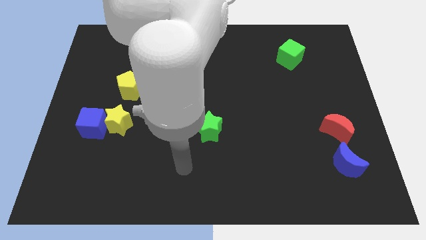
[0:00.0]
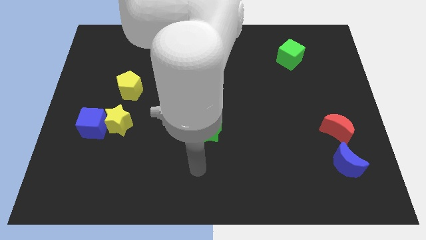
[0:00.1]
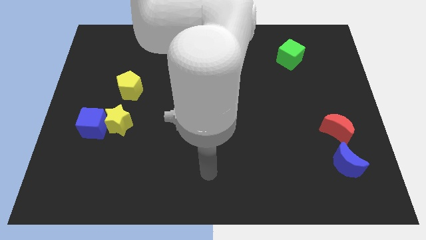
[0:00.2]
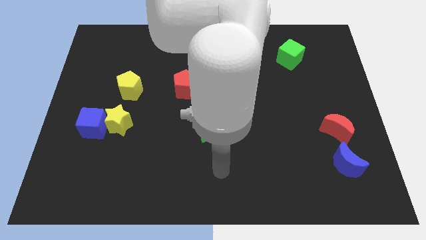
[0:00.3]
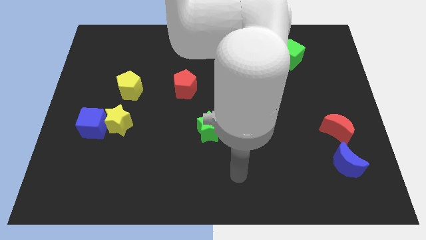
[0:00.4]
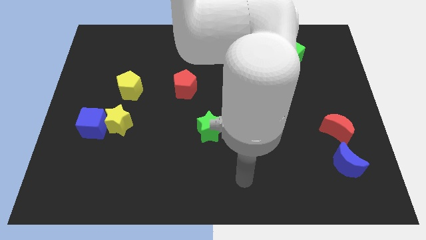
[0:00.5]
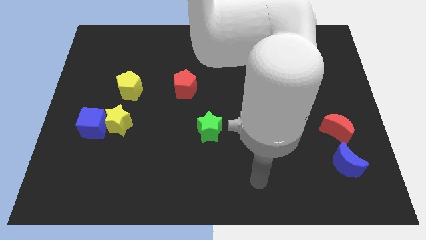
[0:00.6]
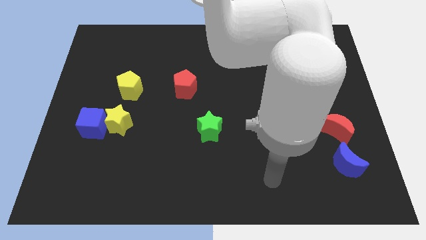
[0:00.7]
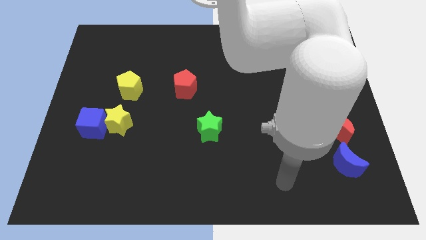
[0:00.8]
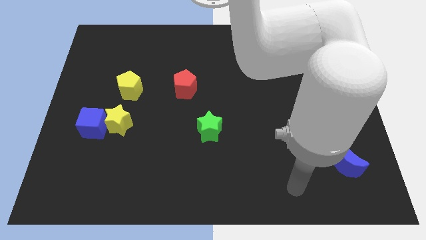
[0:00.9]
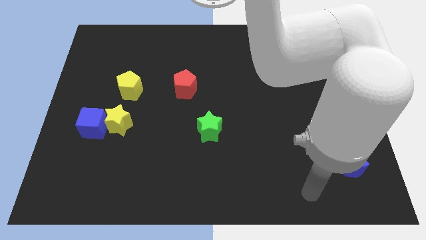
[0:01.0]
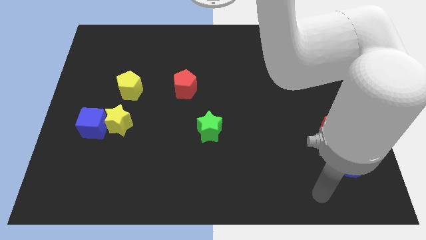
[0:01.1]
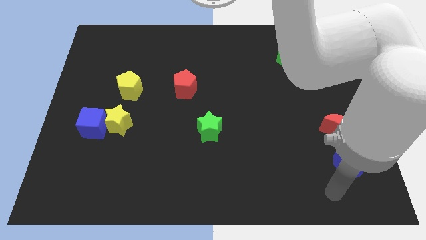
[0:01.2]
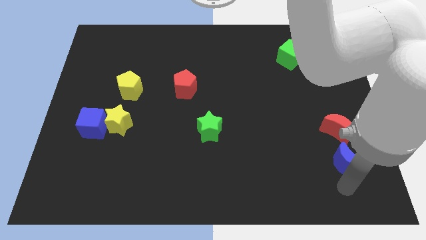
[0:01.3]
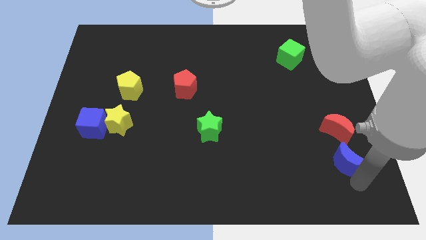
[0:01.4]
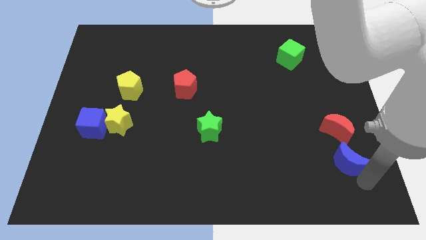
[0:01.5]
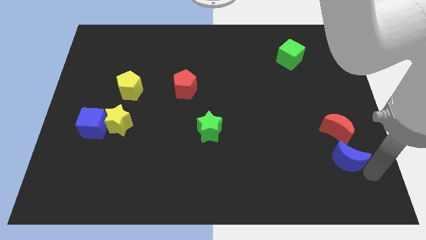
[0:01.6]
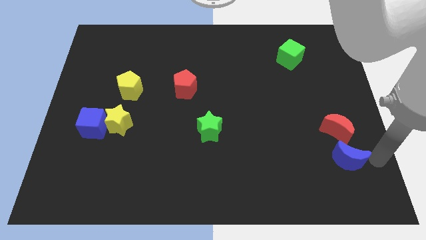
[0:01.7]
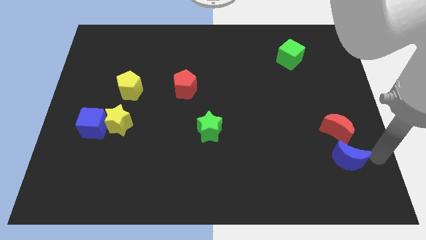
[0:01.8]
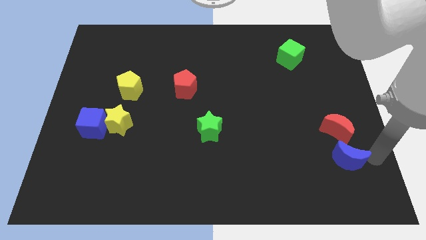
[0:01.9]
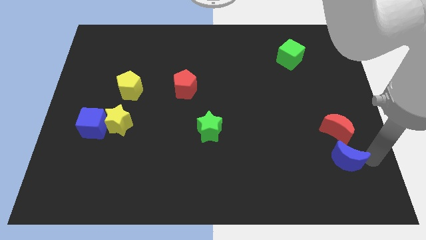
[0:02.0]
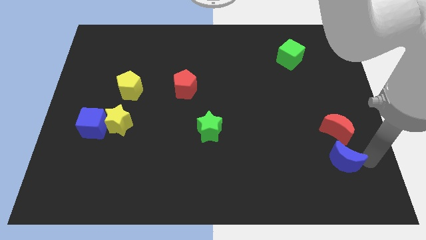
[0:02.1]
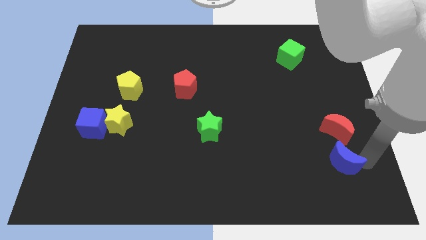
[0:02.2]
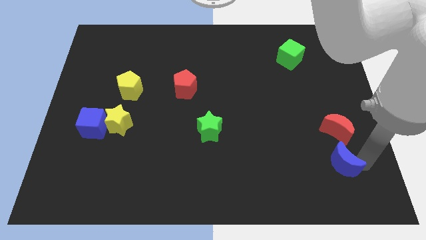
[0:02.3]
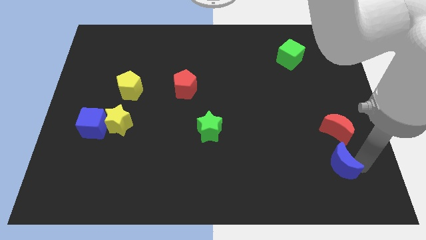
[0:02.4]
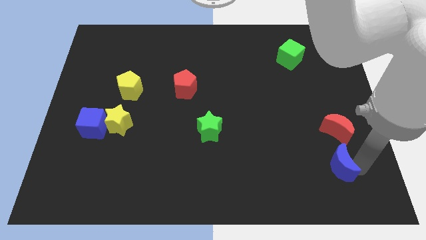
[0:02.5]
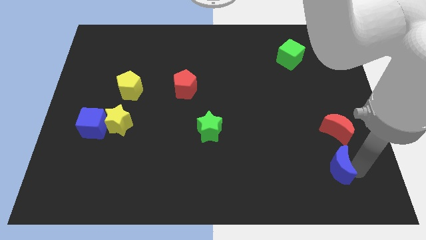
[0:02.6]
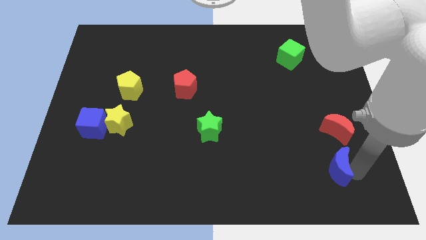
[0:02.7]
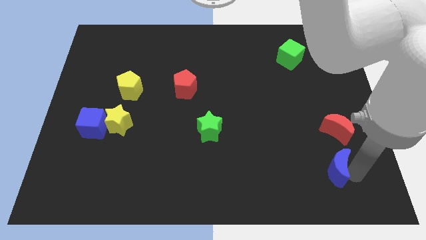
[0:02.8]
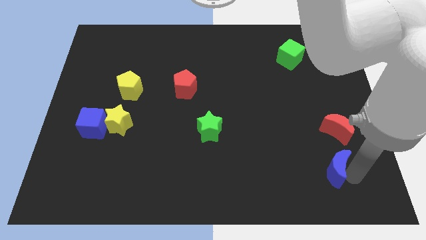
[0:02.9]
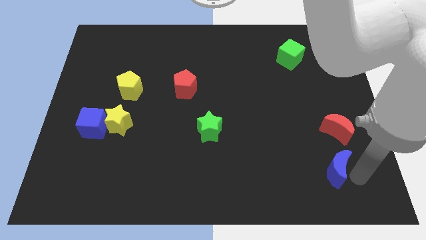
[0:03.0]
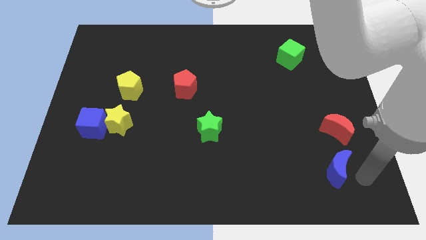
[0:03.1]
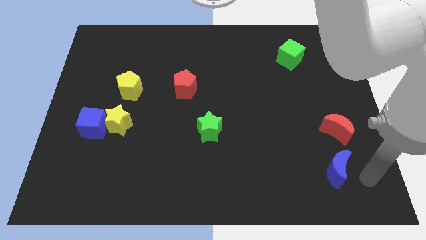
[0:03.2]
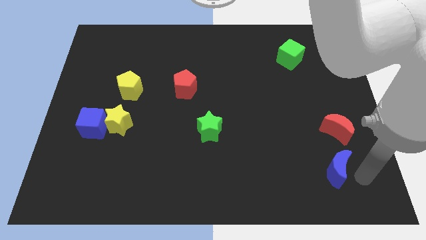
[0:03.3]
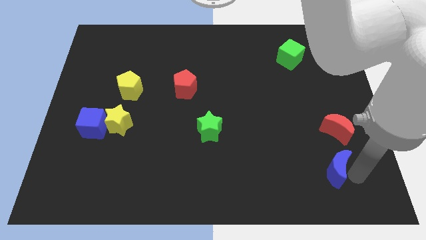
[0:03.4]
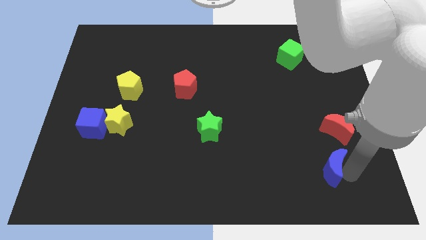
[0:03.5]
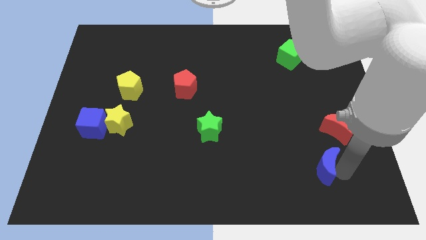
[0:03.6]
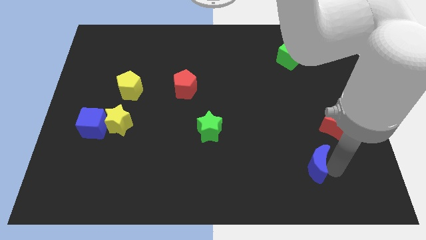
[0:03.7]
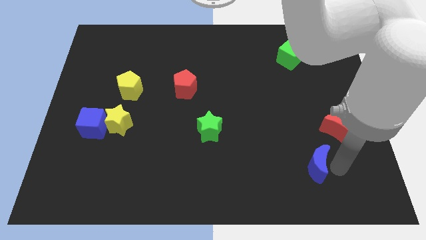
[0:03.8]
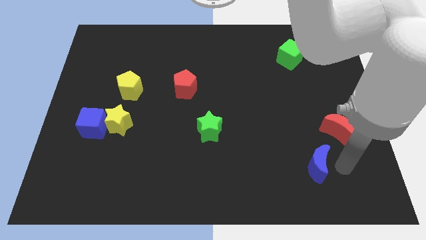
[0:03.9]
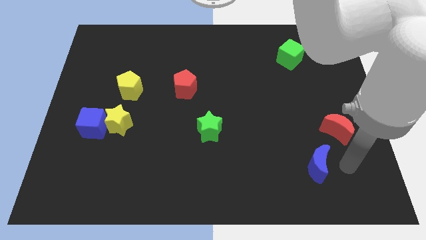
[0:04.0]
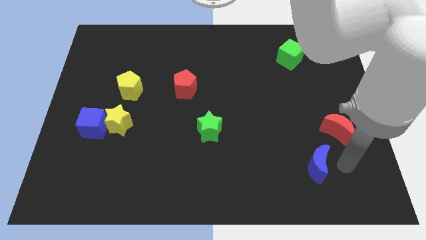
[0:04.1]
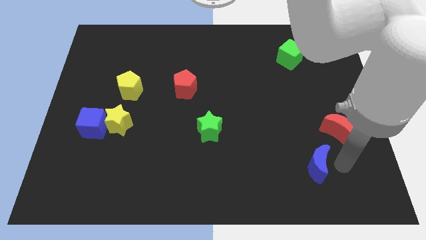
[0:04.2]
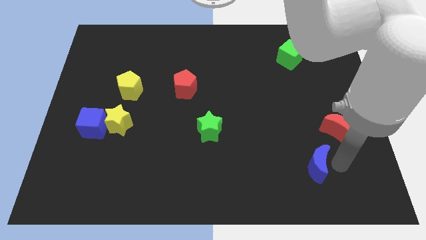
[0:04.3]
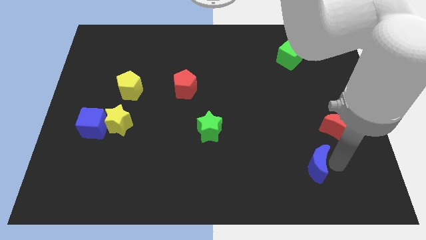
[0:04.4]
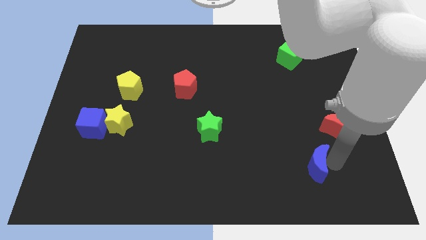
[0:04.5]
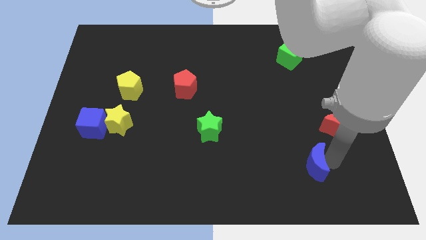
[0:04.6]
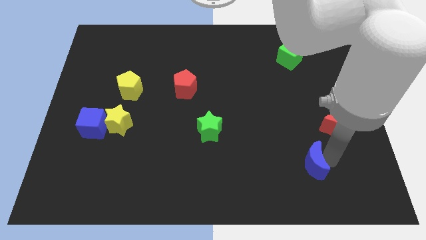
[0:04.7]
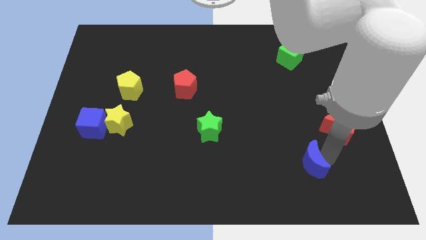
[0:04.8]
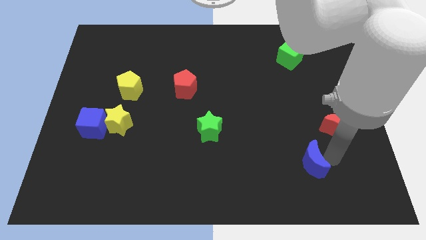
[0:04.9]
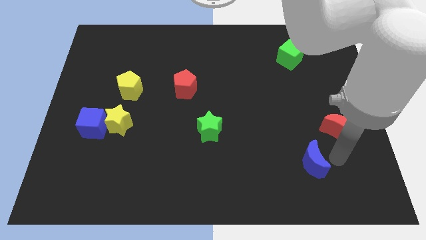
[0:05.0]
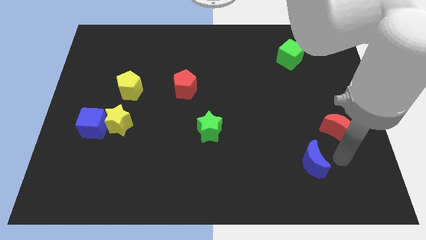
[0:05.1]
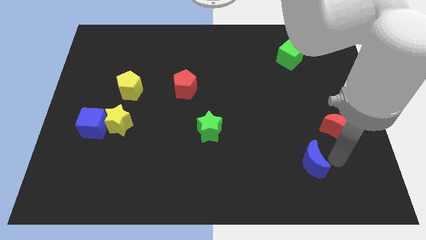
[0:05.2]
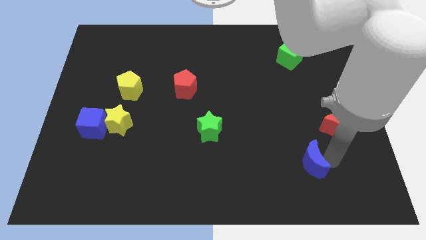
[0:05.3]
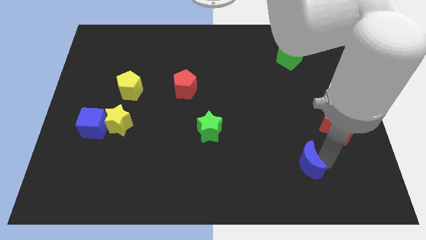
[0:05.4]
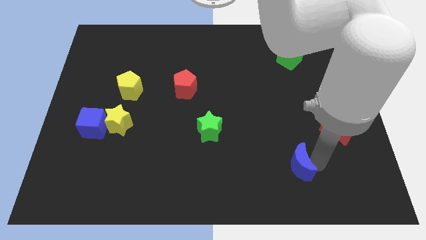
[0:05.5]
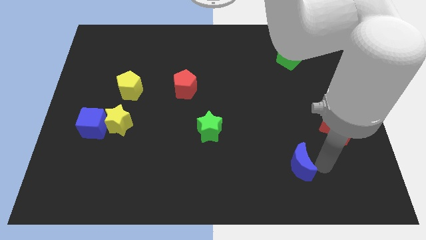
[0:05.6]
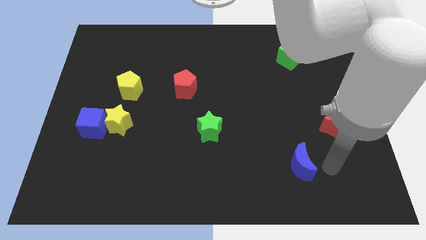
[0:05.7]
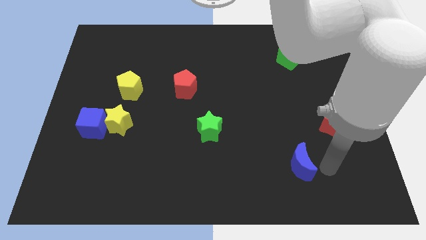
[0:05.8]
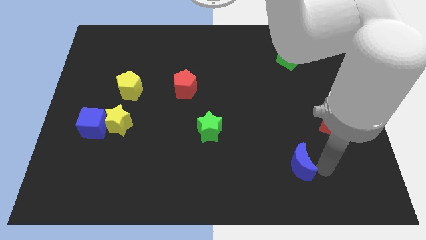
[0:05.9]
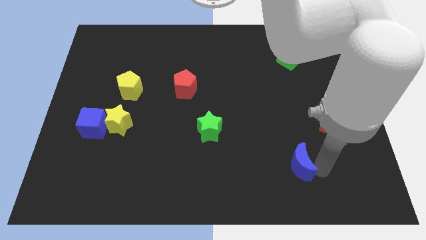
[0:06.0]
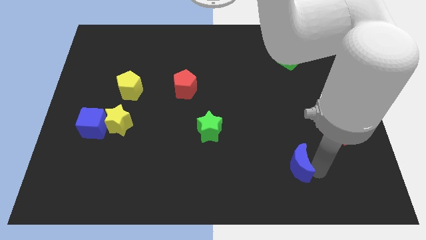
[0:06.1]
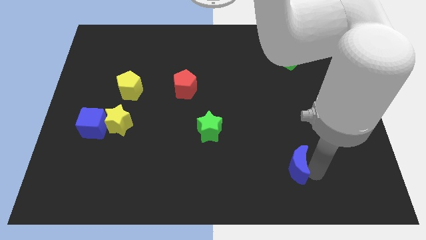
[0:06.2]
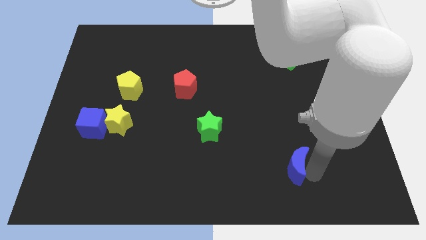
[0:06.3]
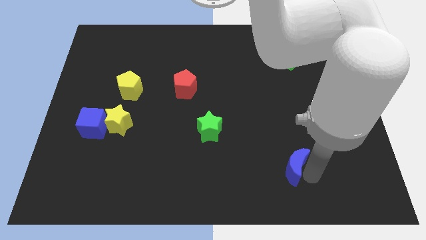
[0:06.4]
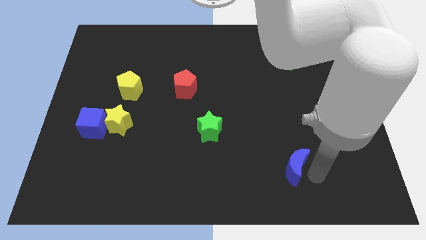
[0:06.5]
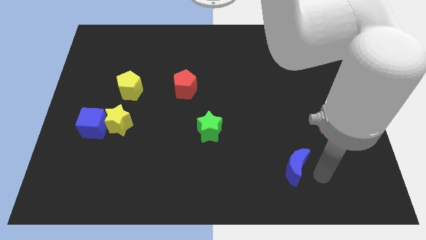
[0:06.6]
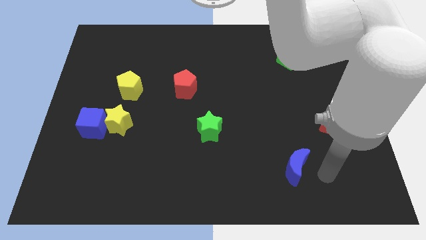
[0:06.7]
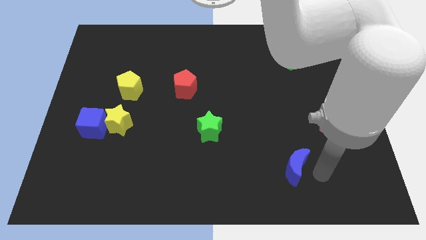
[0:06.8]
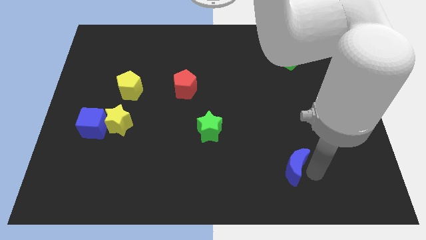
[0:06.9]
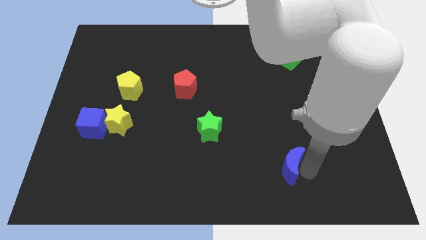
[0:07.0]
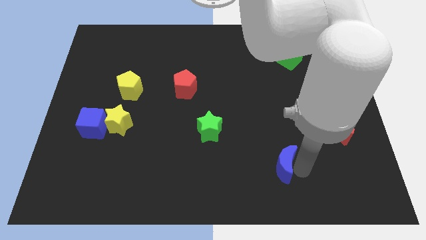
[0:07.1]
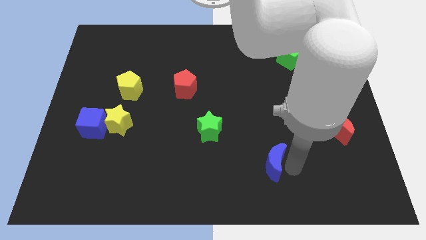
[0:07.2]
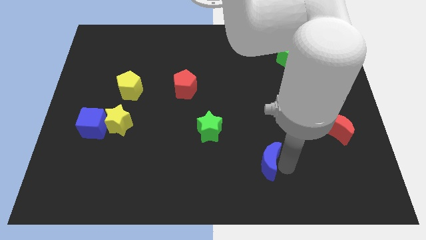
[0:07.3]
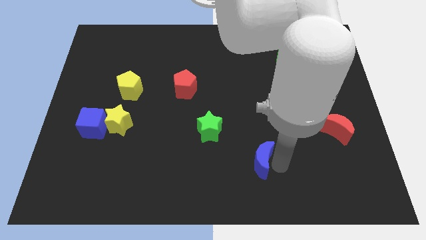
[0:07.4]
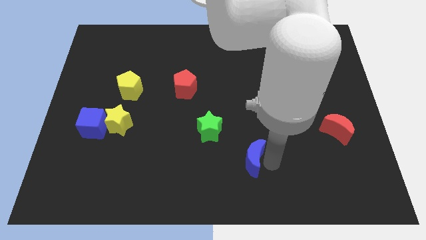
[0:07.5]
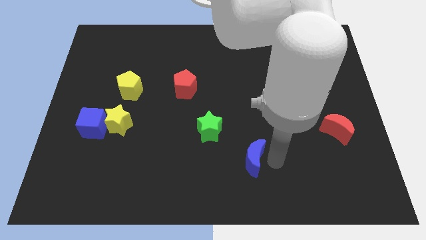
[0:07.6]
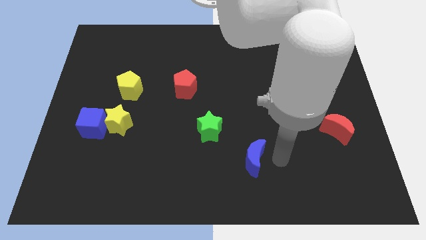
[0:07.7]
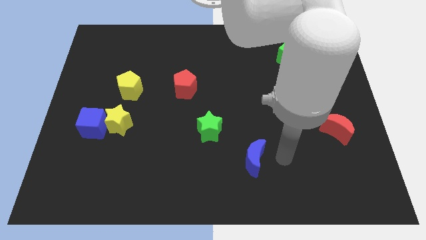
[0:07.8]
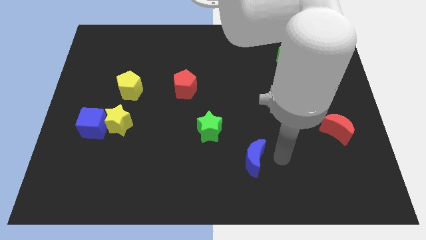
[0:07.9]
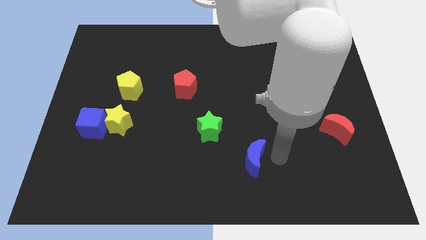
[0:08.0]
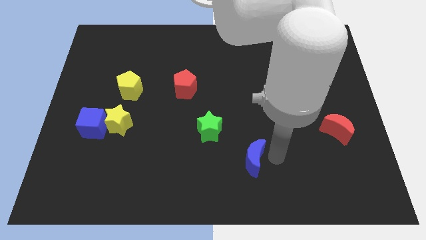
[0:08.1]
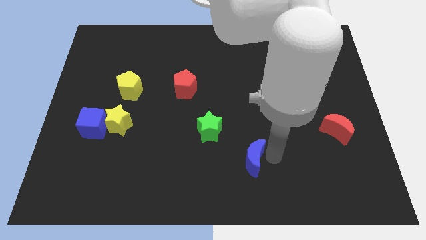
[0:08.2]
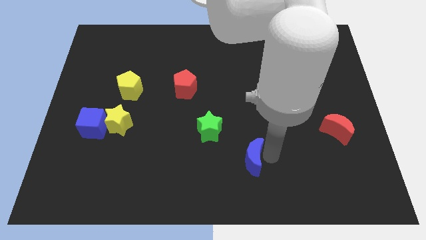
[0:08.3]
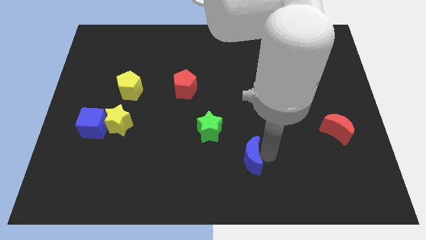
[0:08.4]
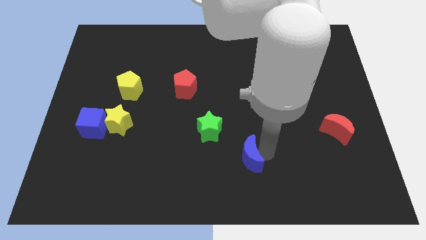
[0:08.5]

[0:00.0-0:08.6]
push the blue moon left
